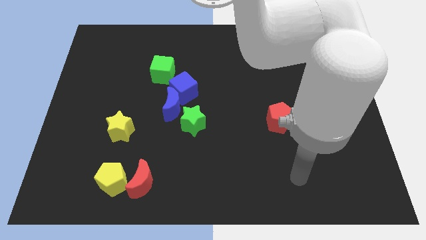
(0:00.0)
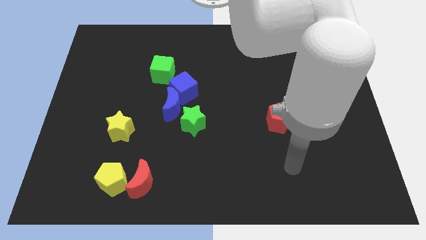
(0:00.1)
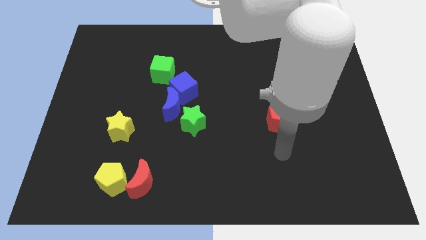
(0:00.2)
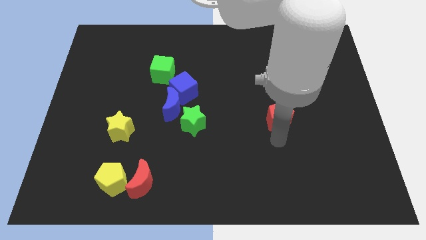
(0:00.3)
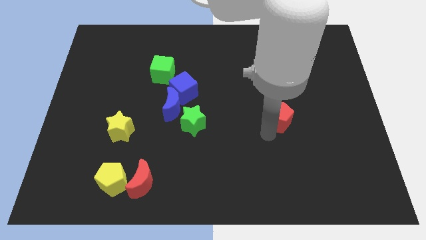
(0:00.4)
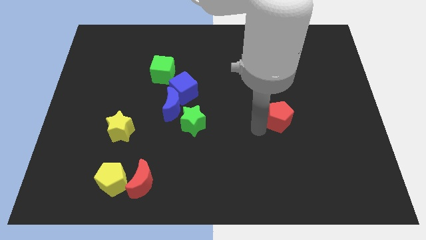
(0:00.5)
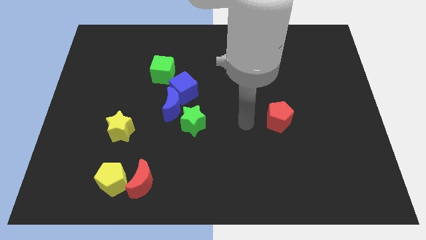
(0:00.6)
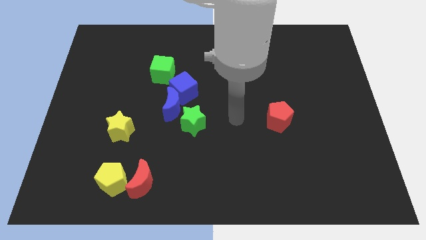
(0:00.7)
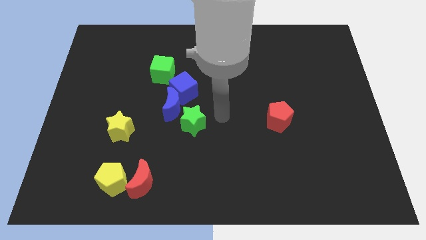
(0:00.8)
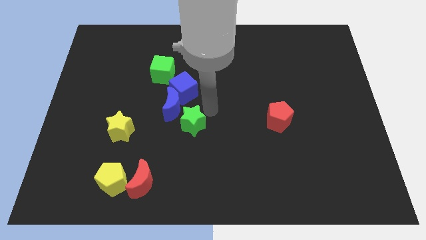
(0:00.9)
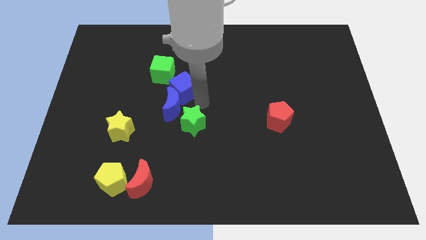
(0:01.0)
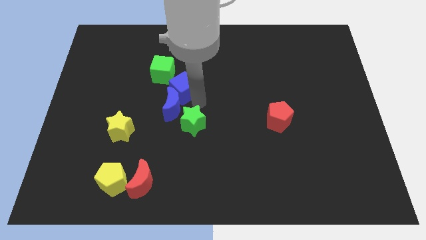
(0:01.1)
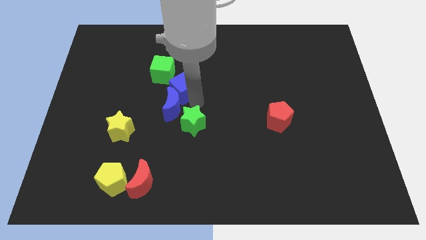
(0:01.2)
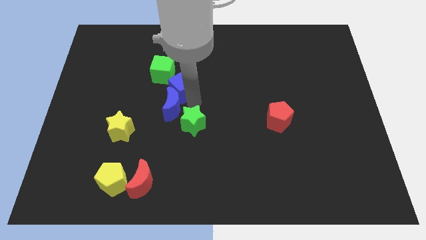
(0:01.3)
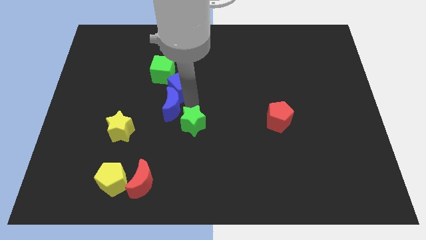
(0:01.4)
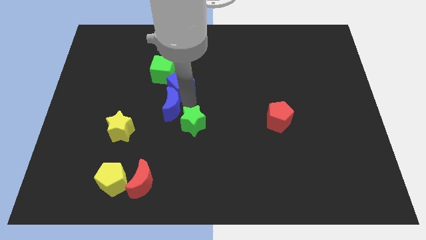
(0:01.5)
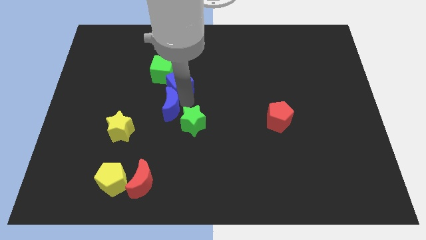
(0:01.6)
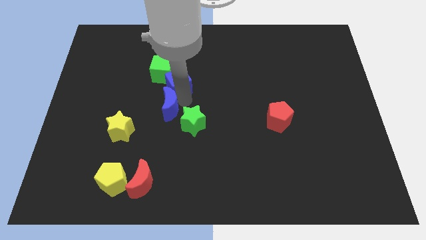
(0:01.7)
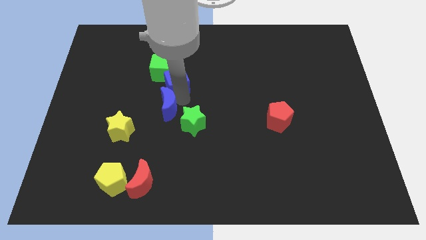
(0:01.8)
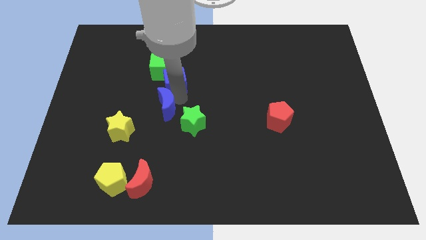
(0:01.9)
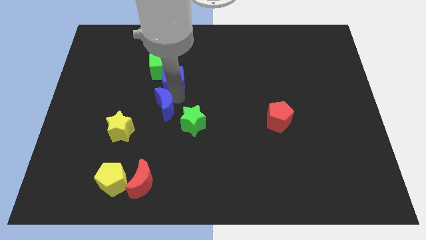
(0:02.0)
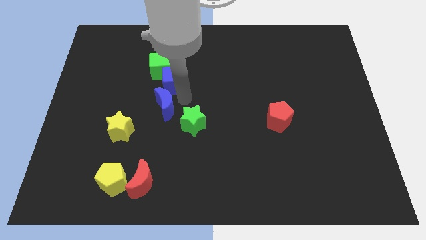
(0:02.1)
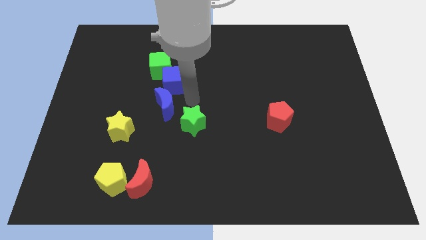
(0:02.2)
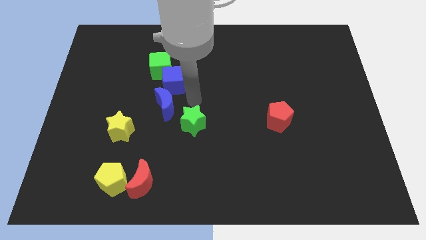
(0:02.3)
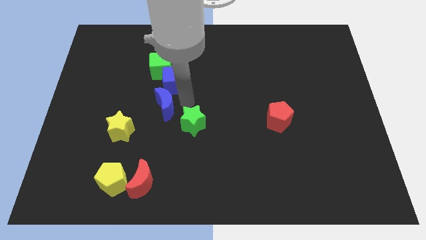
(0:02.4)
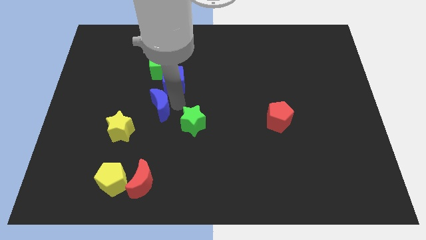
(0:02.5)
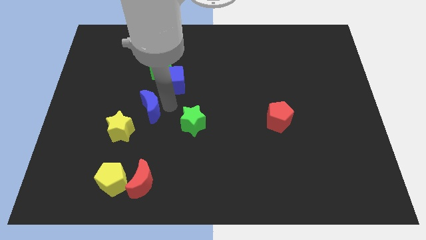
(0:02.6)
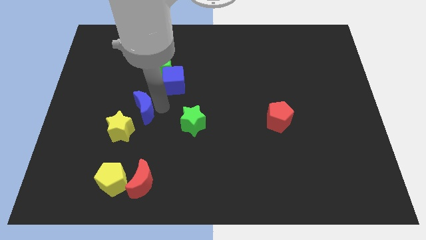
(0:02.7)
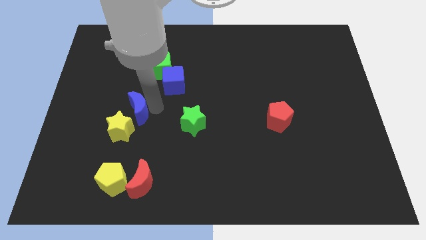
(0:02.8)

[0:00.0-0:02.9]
pull the blue moon apart from the blue cube and green star

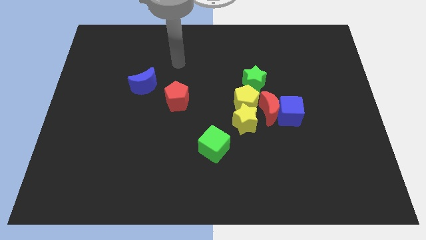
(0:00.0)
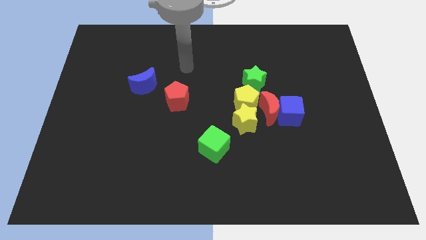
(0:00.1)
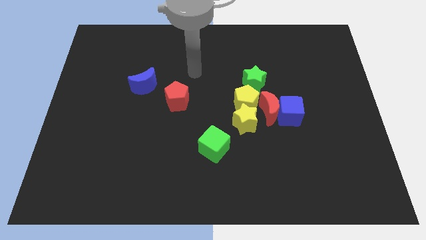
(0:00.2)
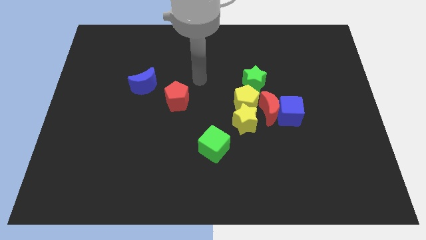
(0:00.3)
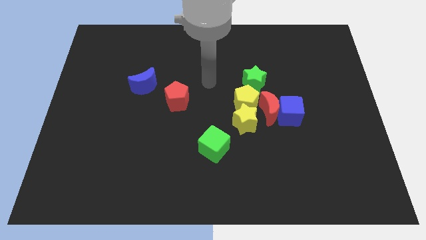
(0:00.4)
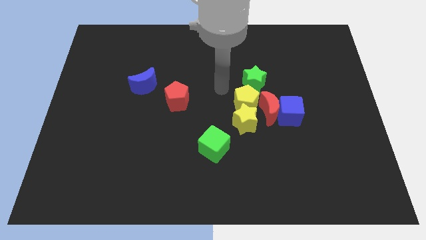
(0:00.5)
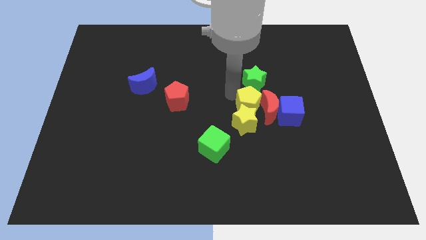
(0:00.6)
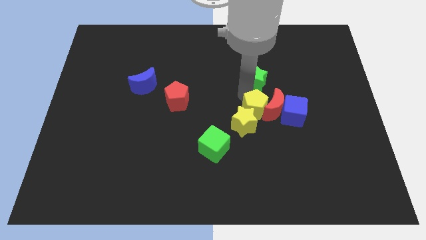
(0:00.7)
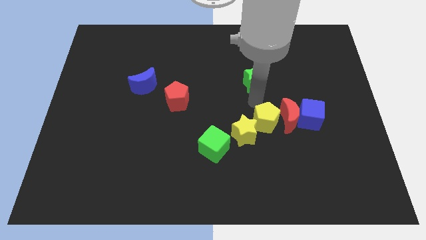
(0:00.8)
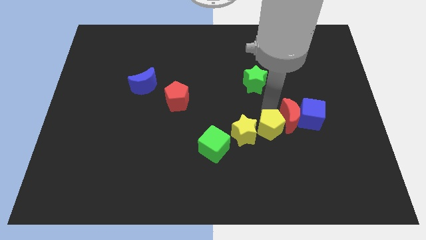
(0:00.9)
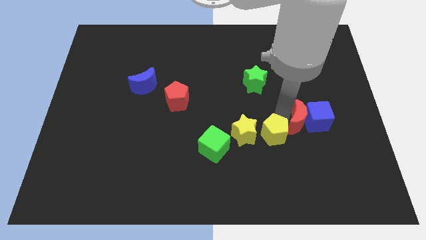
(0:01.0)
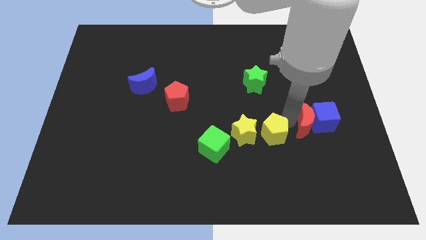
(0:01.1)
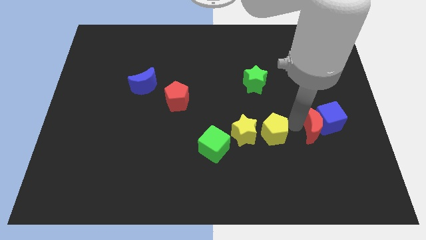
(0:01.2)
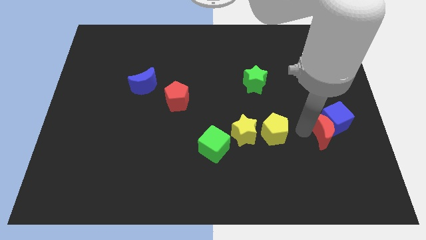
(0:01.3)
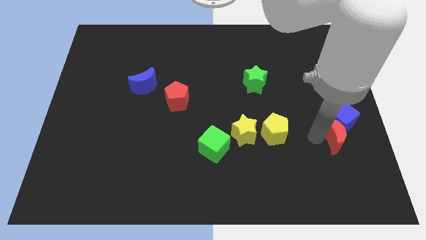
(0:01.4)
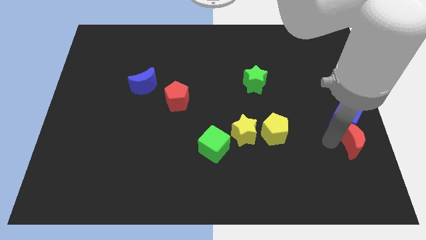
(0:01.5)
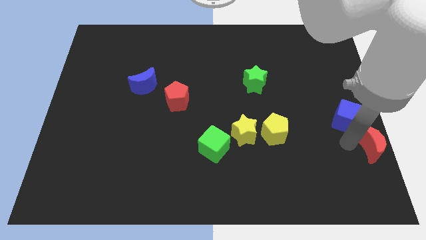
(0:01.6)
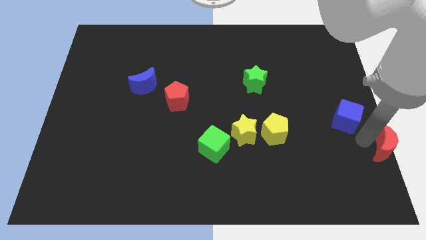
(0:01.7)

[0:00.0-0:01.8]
pull the blue cube apart from the red moon

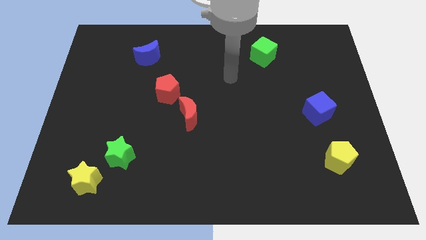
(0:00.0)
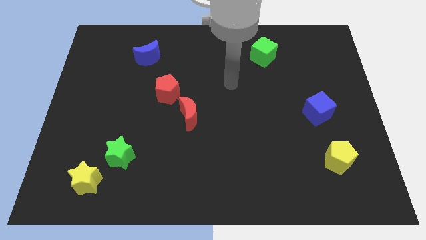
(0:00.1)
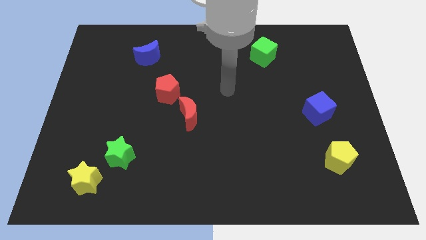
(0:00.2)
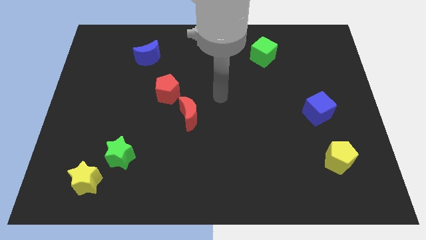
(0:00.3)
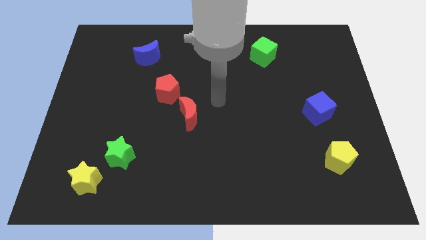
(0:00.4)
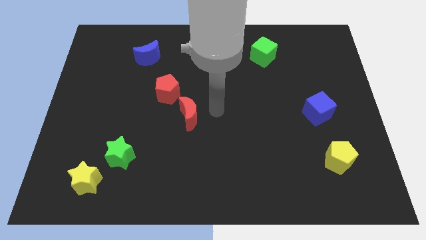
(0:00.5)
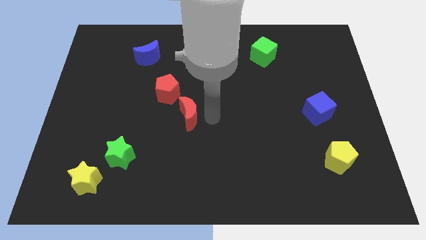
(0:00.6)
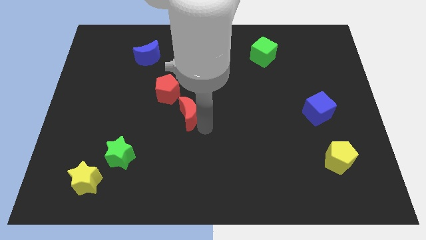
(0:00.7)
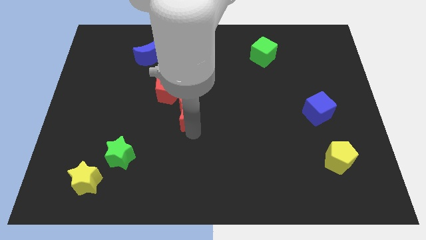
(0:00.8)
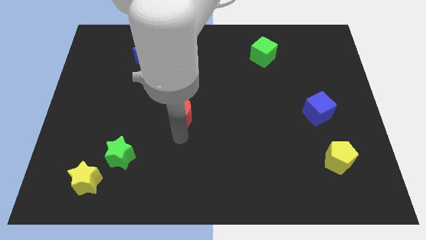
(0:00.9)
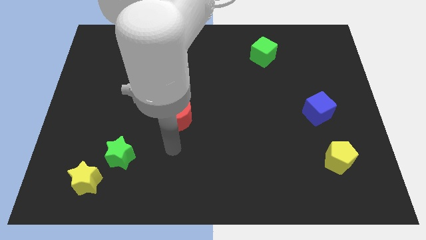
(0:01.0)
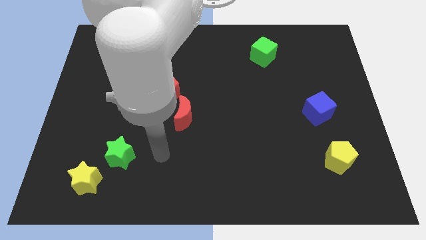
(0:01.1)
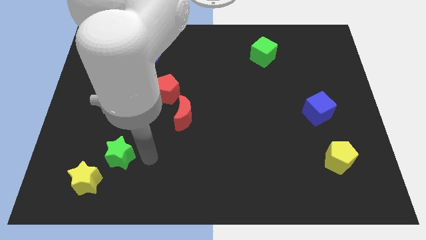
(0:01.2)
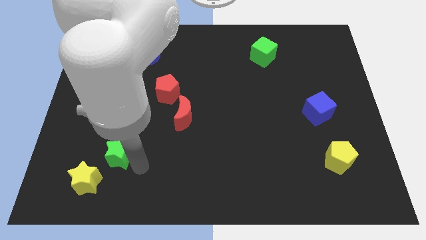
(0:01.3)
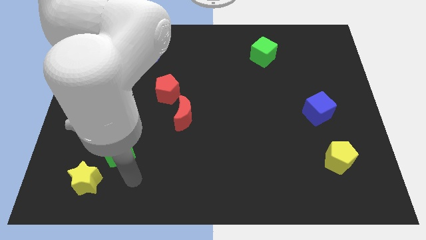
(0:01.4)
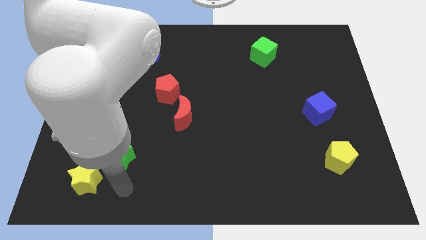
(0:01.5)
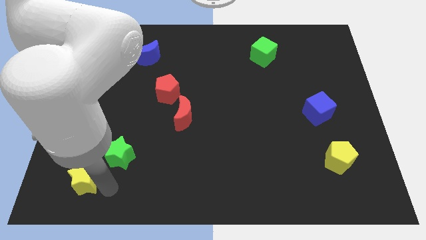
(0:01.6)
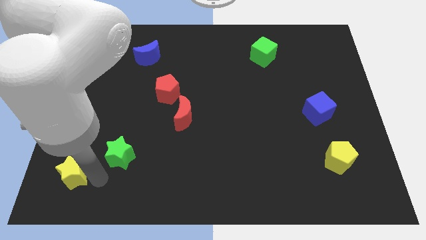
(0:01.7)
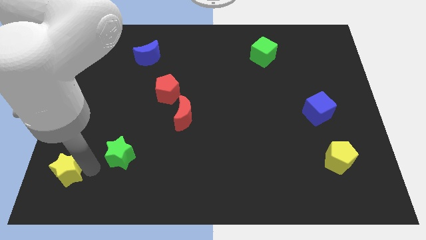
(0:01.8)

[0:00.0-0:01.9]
move the green star away from the yellow star

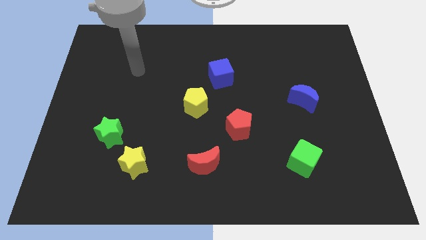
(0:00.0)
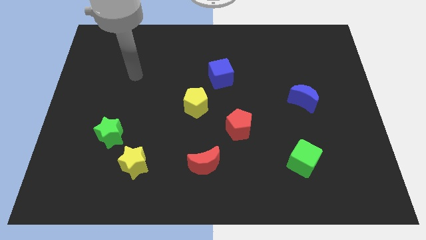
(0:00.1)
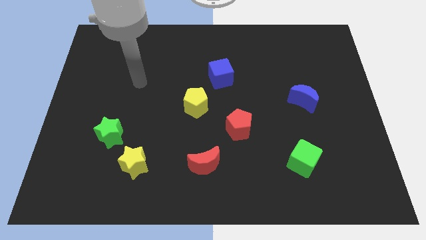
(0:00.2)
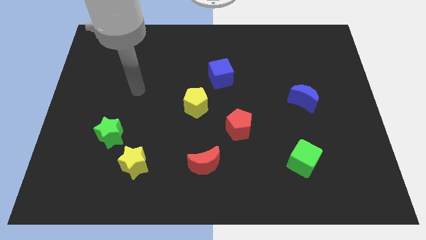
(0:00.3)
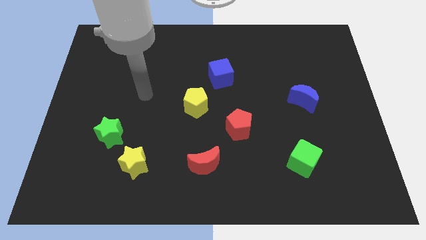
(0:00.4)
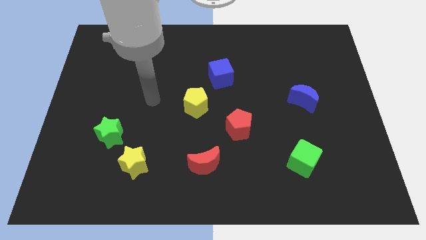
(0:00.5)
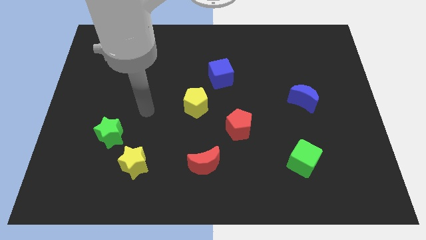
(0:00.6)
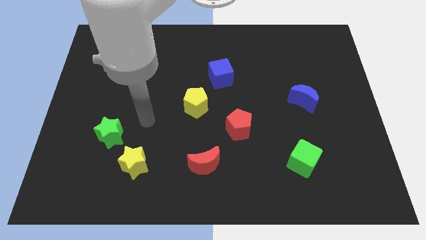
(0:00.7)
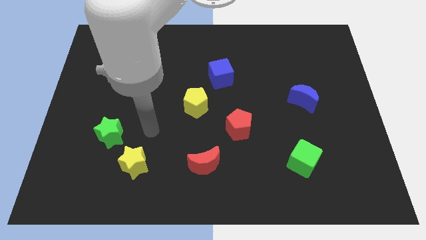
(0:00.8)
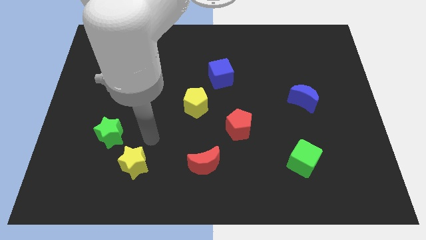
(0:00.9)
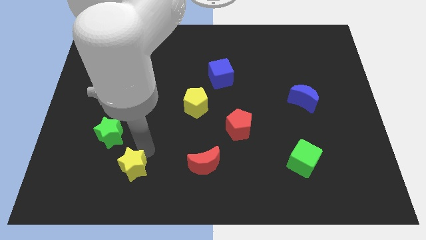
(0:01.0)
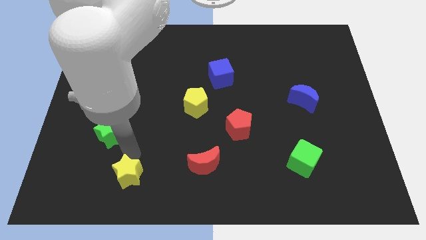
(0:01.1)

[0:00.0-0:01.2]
separate the green star from the yellow star

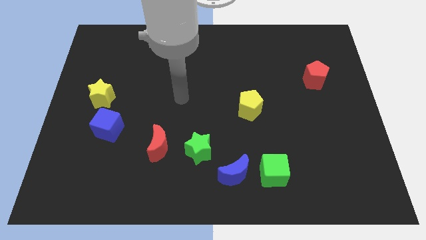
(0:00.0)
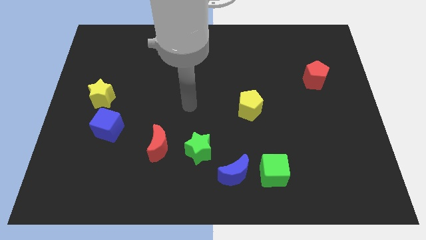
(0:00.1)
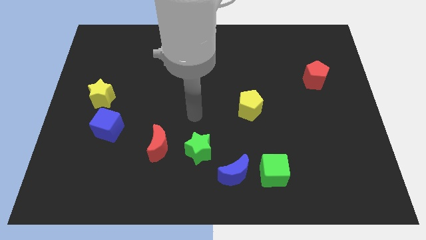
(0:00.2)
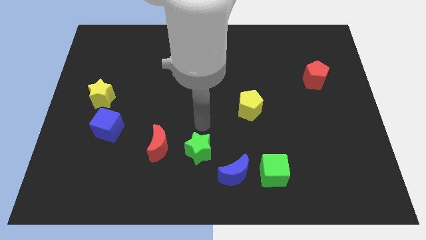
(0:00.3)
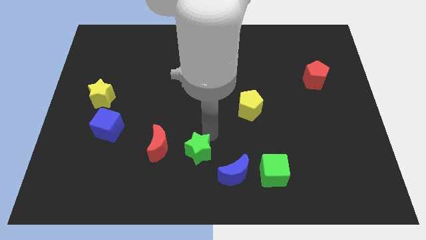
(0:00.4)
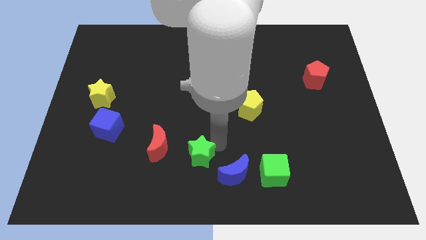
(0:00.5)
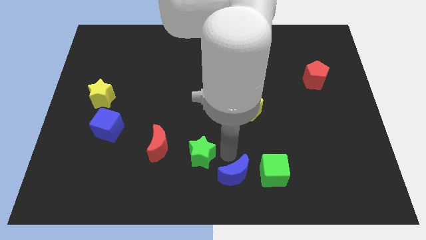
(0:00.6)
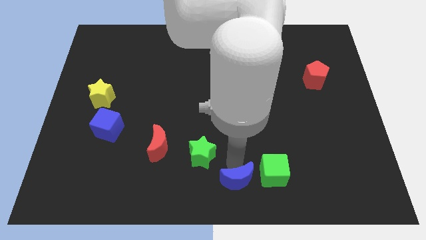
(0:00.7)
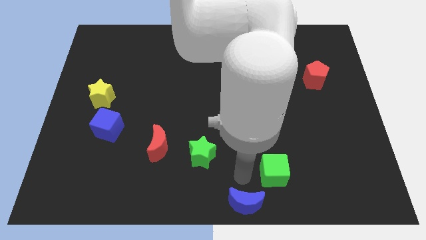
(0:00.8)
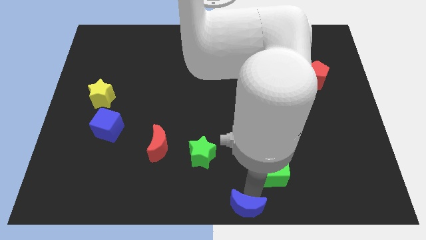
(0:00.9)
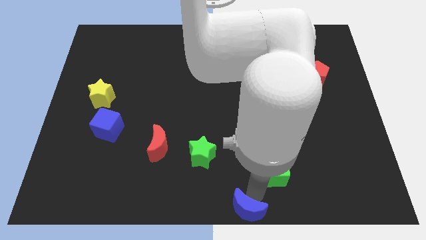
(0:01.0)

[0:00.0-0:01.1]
separate the green cube from the blue moon

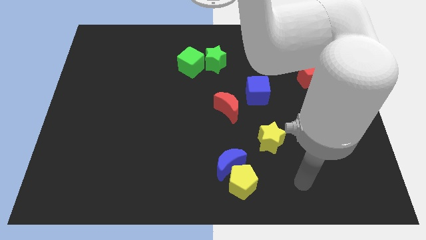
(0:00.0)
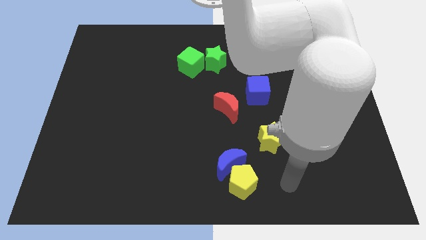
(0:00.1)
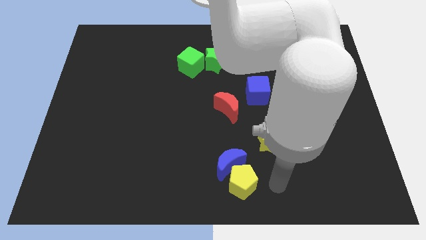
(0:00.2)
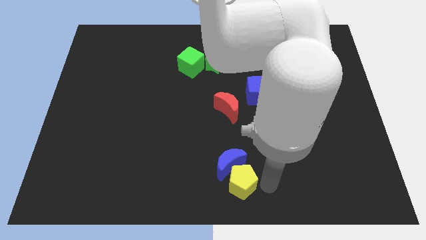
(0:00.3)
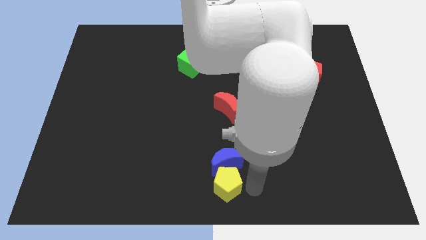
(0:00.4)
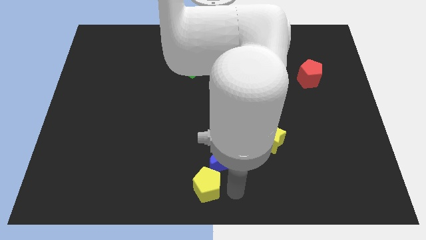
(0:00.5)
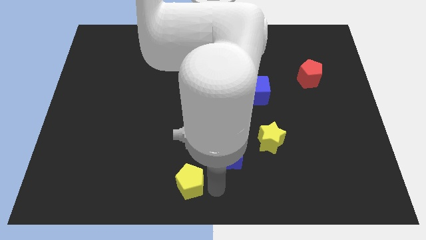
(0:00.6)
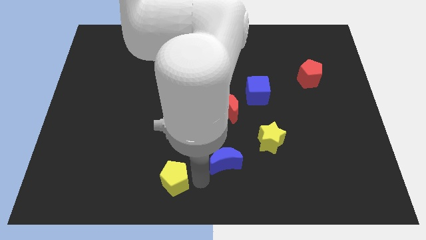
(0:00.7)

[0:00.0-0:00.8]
move the blue moon away from the yellow pentagon
